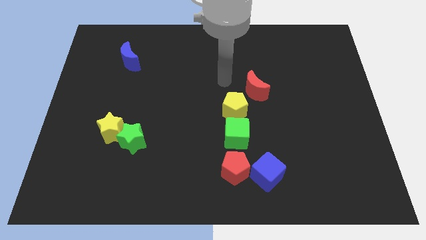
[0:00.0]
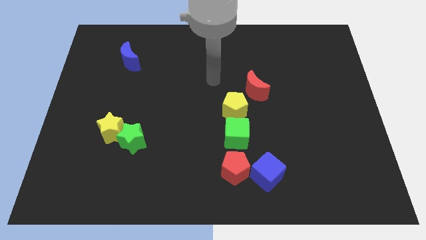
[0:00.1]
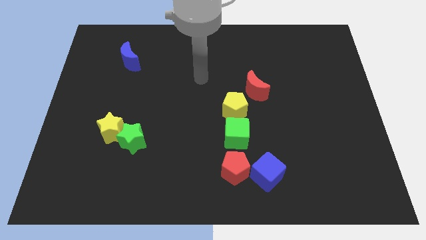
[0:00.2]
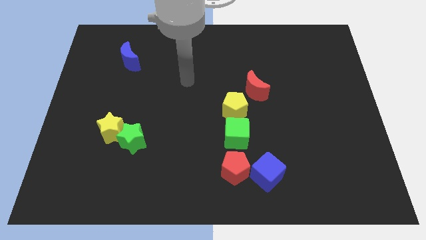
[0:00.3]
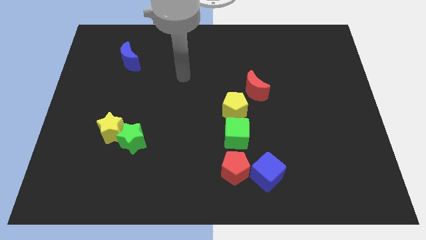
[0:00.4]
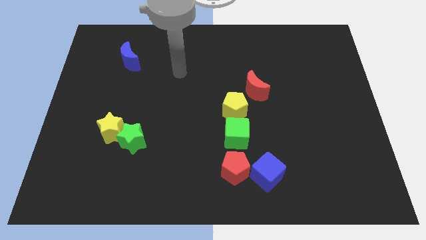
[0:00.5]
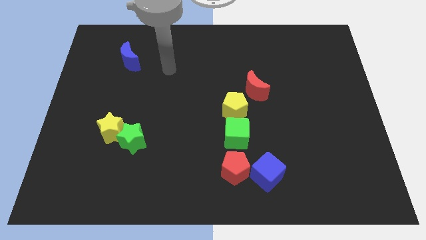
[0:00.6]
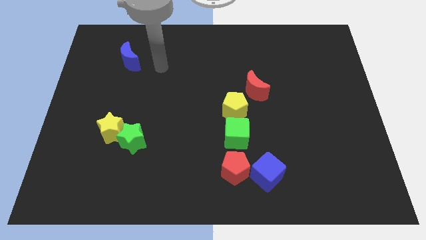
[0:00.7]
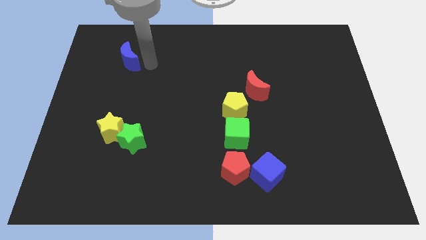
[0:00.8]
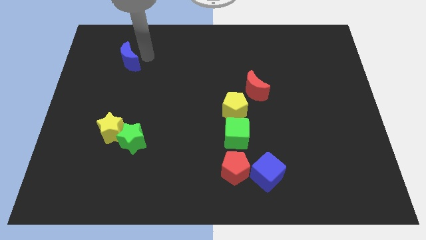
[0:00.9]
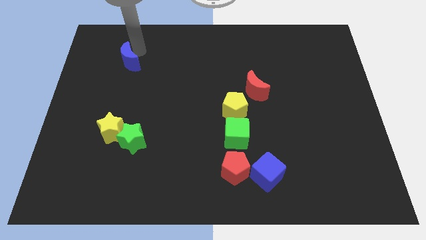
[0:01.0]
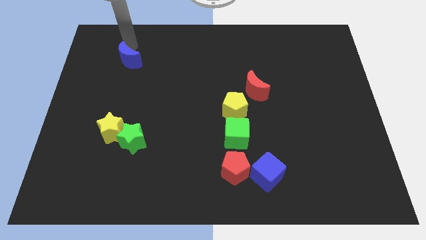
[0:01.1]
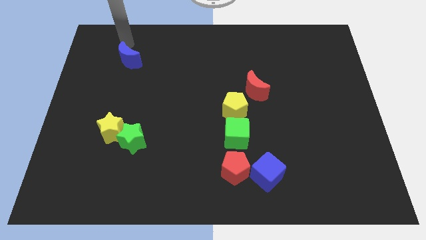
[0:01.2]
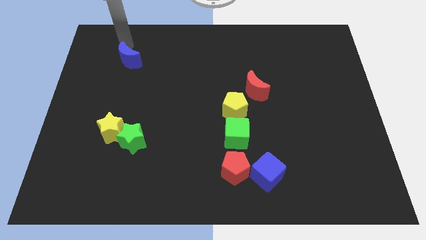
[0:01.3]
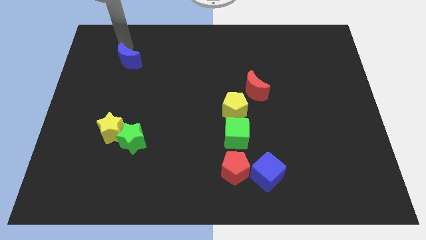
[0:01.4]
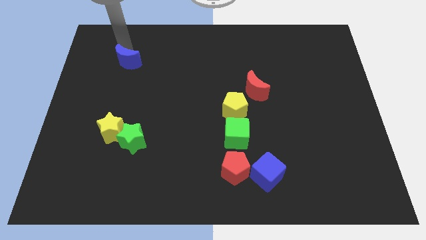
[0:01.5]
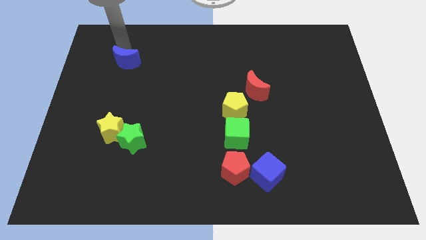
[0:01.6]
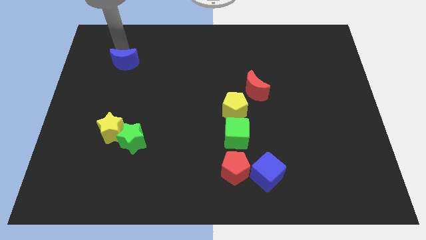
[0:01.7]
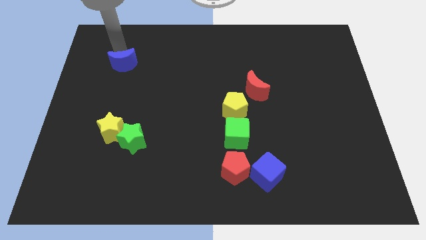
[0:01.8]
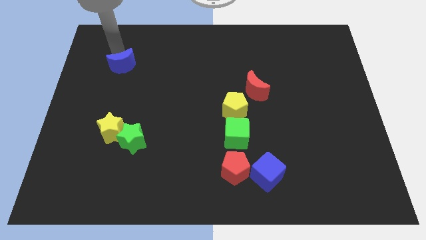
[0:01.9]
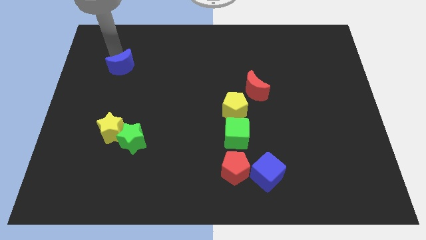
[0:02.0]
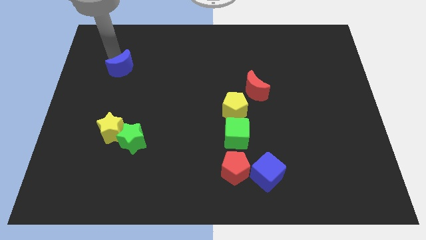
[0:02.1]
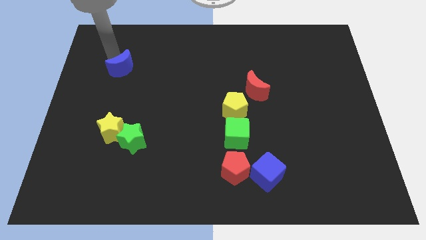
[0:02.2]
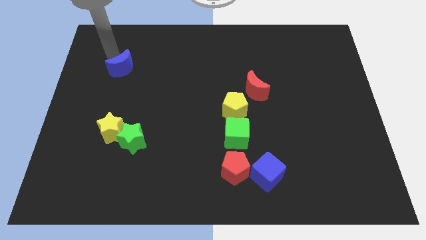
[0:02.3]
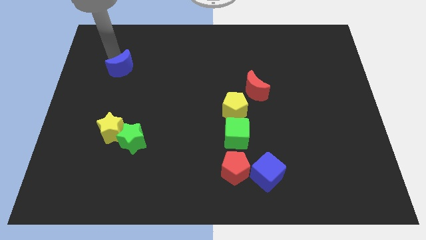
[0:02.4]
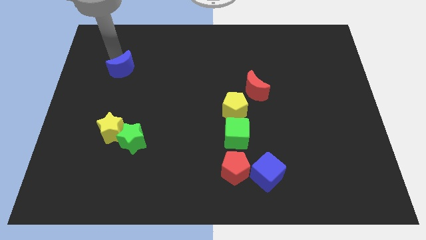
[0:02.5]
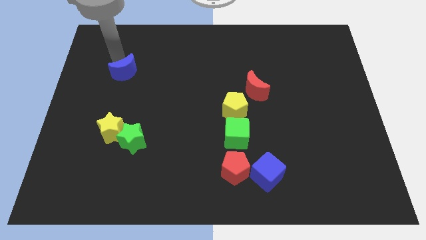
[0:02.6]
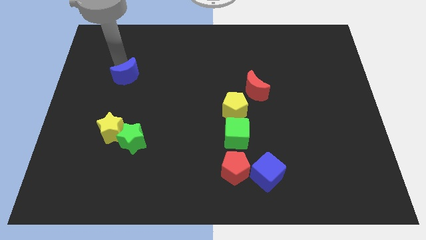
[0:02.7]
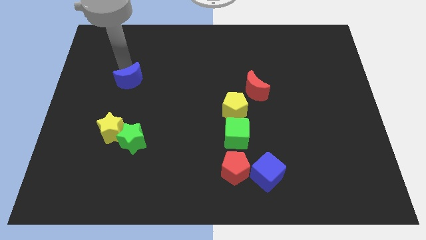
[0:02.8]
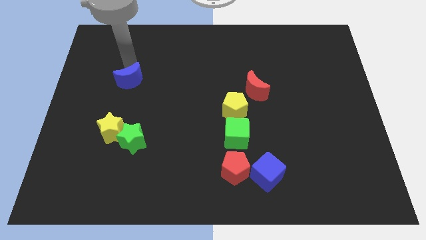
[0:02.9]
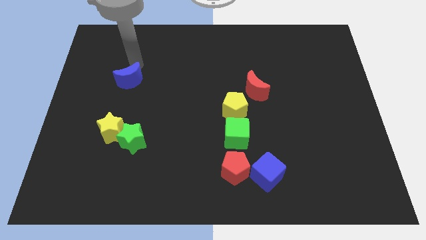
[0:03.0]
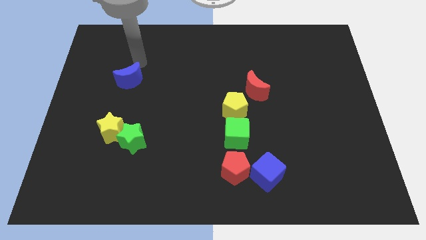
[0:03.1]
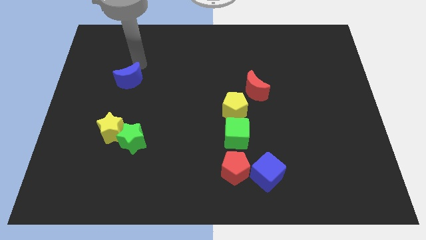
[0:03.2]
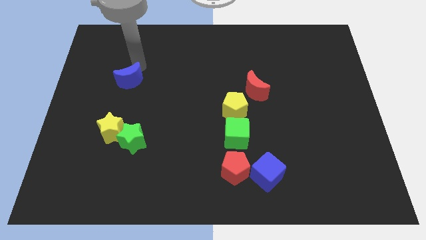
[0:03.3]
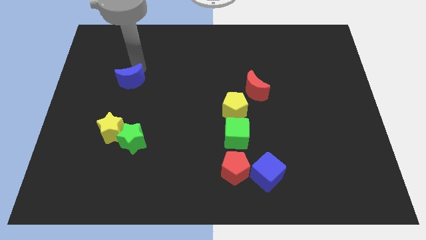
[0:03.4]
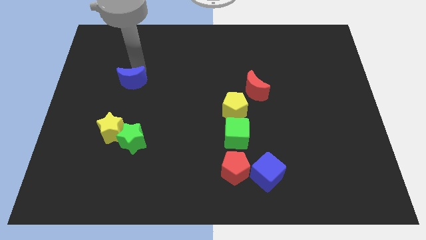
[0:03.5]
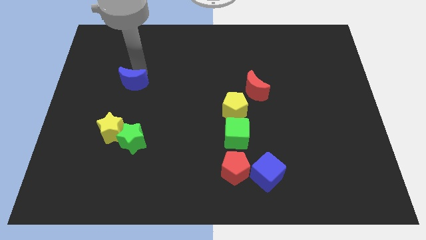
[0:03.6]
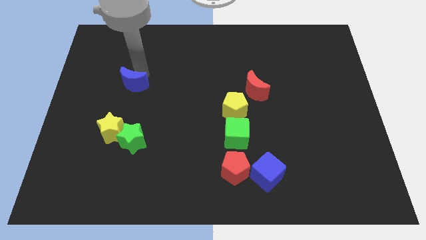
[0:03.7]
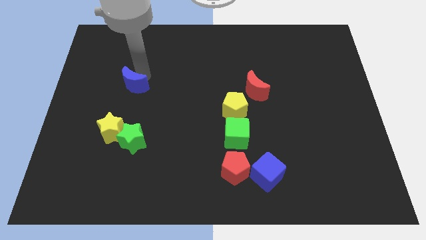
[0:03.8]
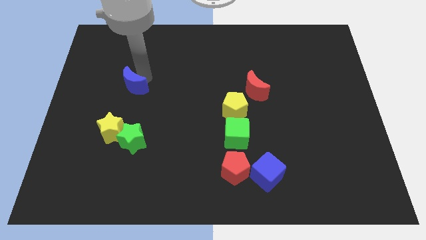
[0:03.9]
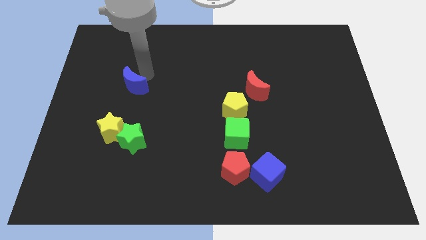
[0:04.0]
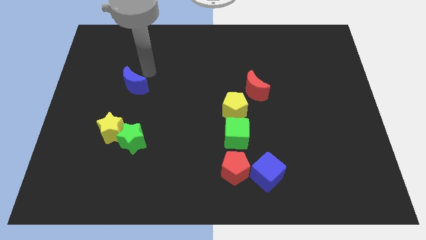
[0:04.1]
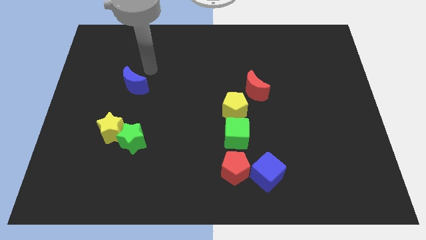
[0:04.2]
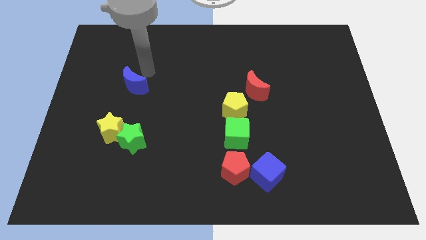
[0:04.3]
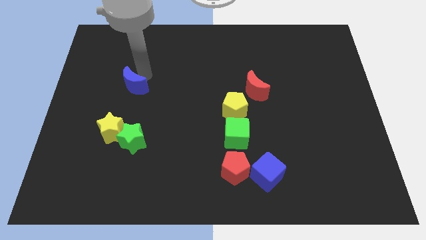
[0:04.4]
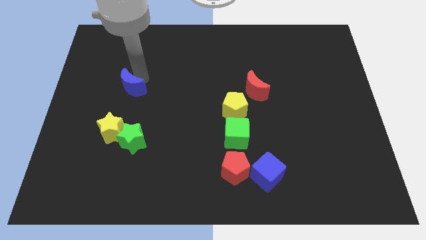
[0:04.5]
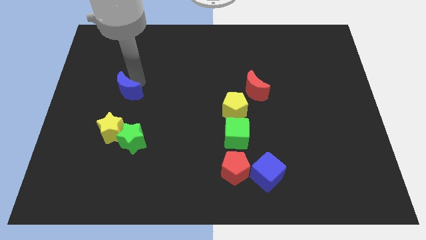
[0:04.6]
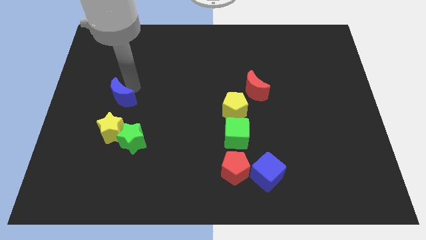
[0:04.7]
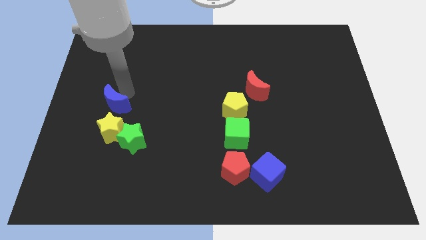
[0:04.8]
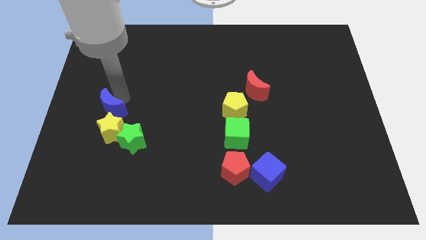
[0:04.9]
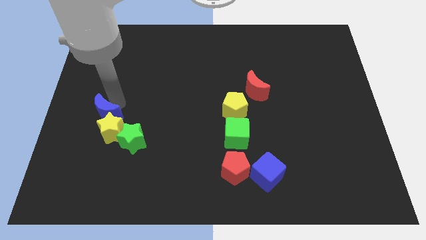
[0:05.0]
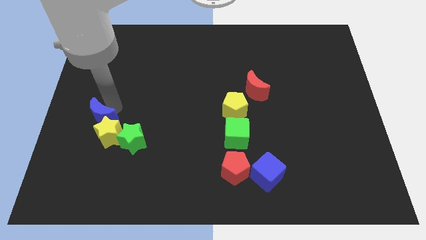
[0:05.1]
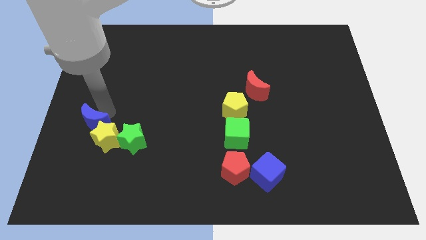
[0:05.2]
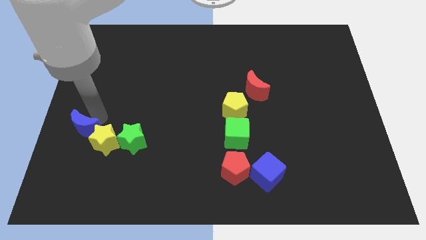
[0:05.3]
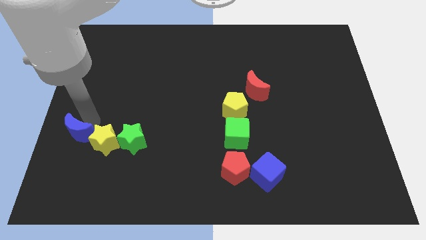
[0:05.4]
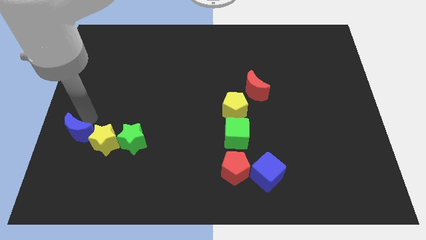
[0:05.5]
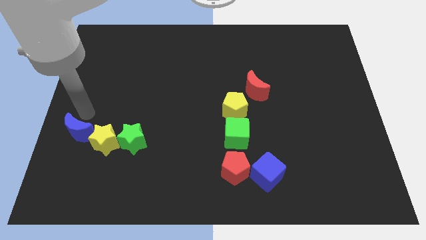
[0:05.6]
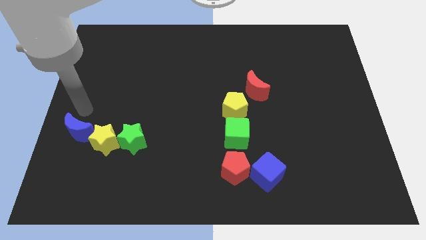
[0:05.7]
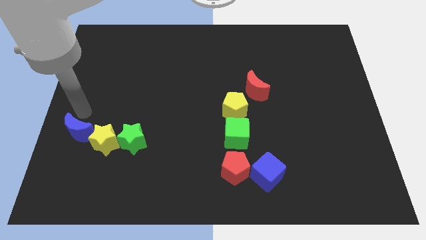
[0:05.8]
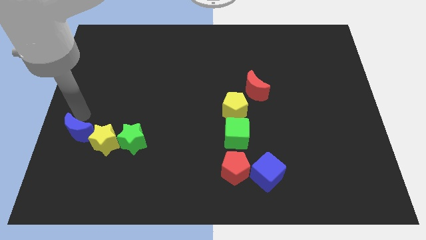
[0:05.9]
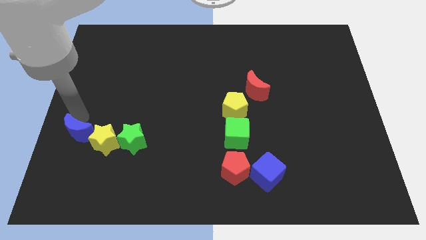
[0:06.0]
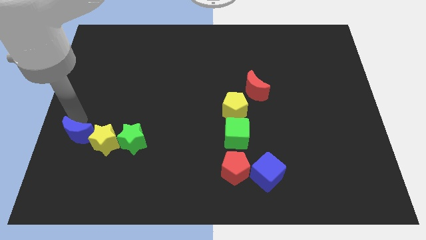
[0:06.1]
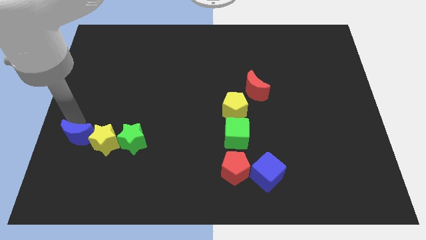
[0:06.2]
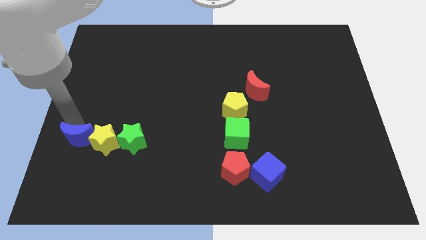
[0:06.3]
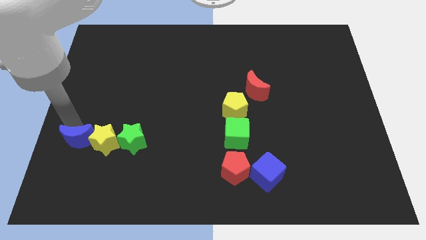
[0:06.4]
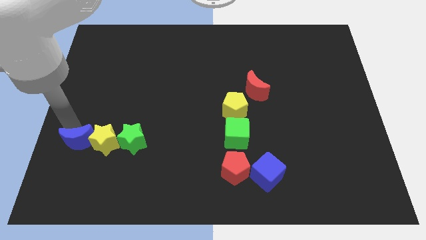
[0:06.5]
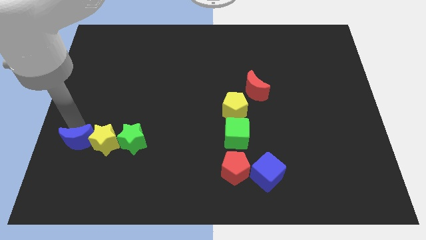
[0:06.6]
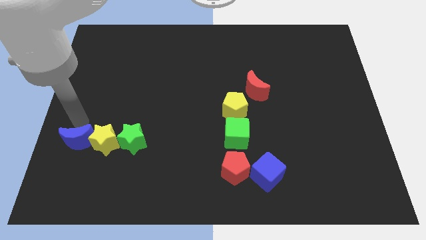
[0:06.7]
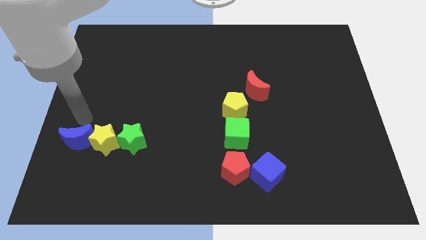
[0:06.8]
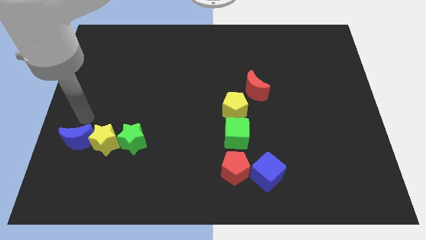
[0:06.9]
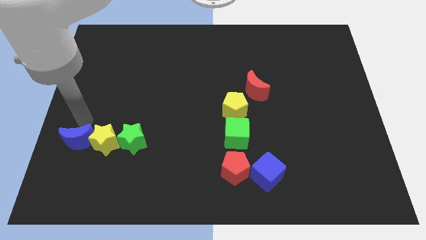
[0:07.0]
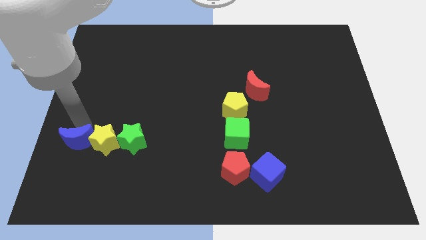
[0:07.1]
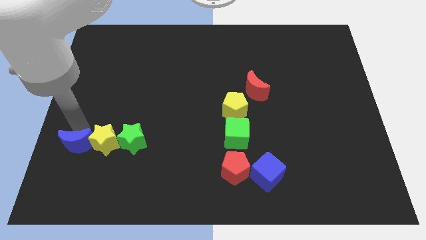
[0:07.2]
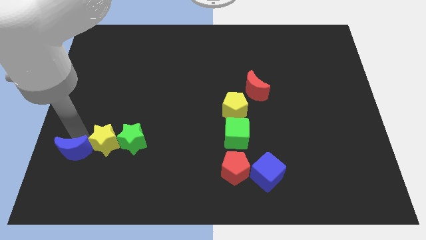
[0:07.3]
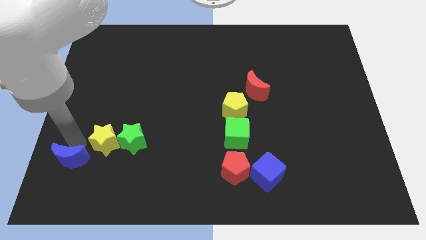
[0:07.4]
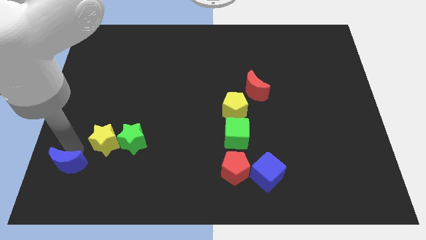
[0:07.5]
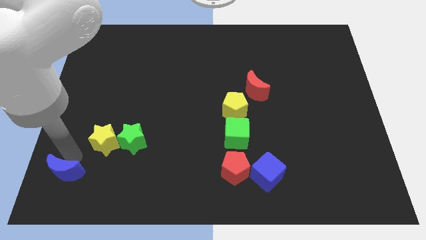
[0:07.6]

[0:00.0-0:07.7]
move the blue moon to the bottom left
